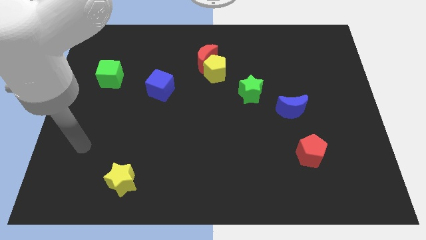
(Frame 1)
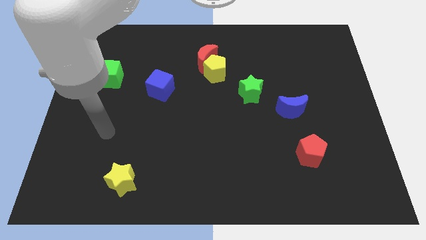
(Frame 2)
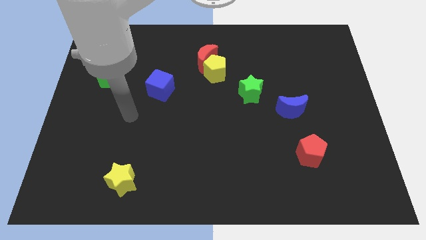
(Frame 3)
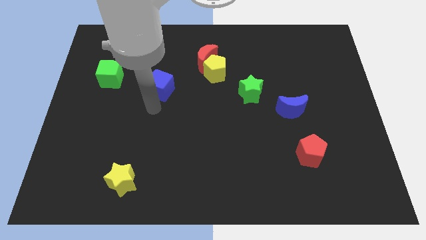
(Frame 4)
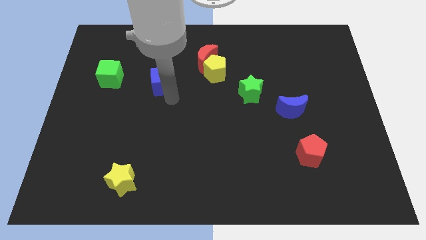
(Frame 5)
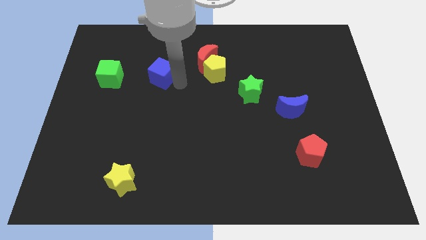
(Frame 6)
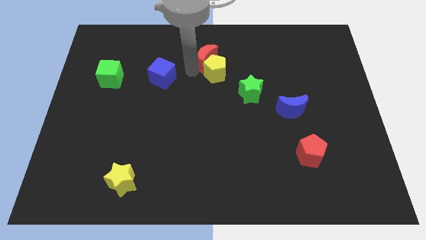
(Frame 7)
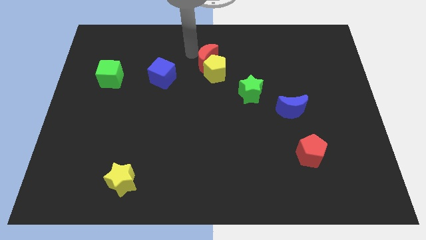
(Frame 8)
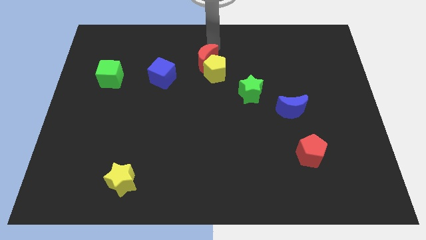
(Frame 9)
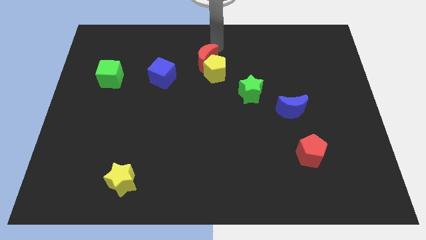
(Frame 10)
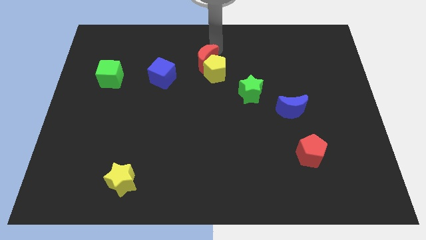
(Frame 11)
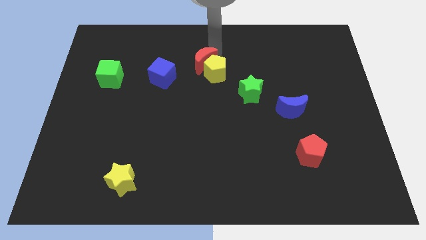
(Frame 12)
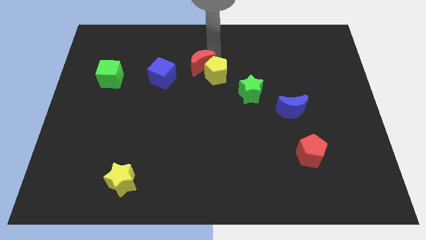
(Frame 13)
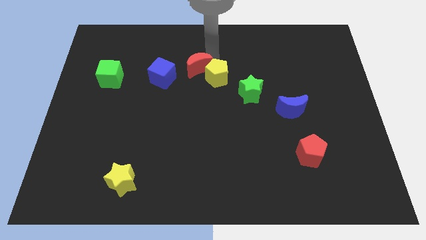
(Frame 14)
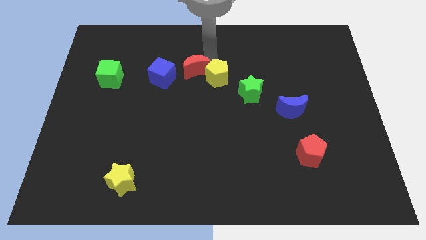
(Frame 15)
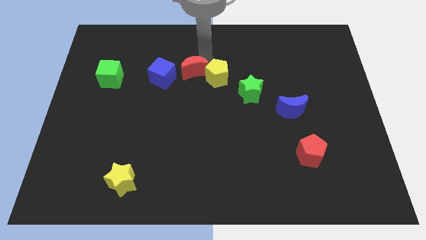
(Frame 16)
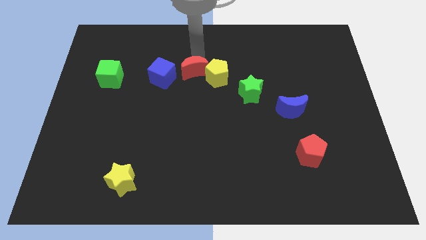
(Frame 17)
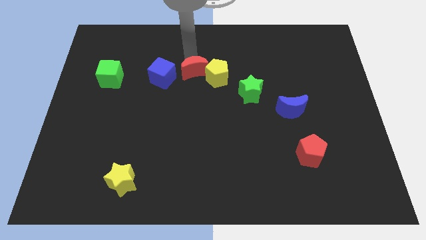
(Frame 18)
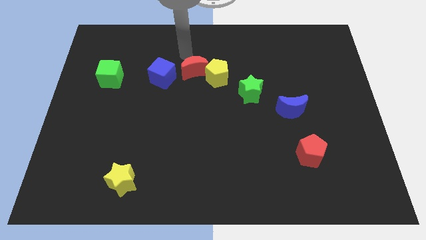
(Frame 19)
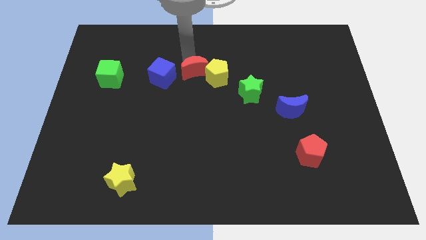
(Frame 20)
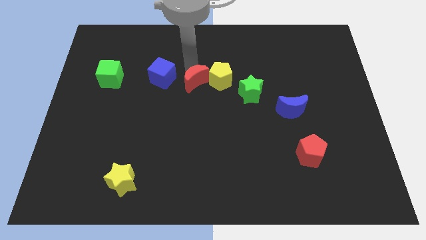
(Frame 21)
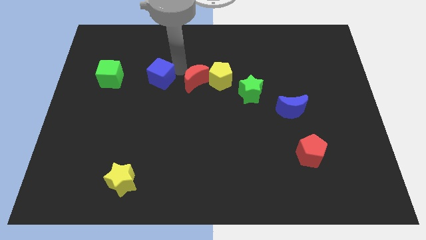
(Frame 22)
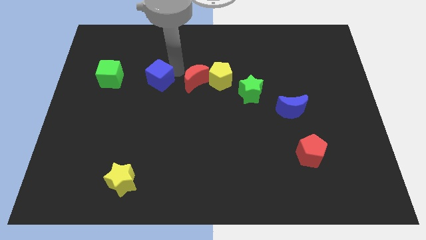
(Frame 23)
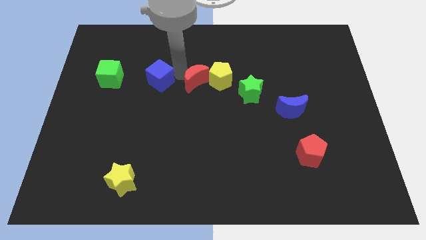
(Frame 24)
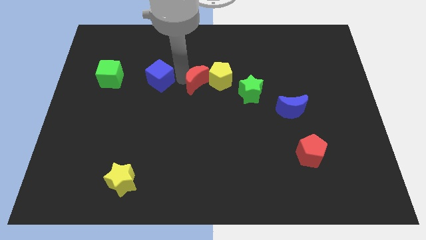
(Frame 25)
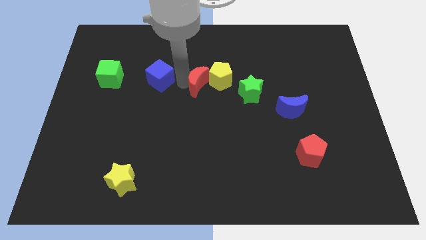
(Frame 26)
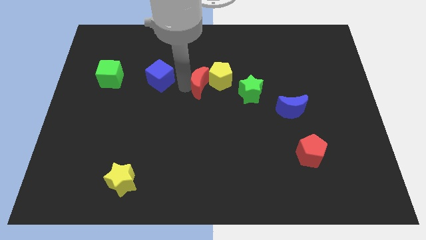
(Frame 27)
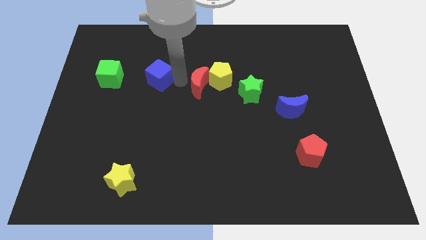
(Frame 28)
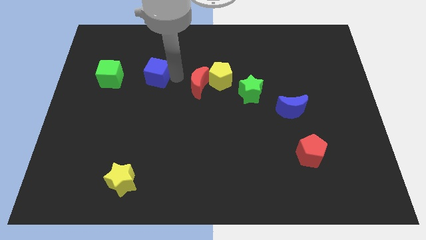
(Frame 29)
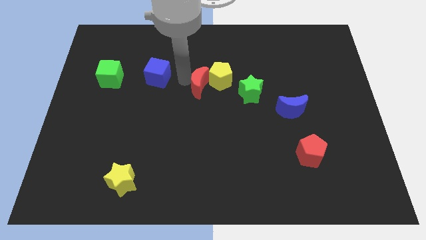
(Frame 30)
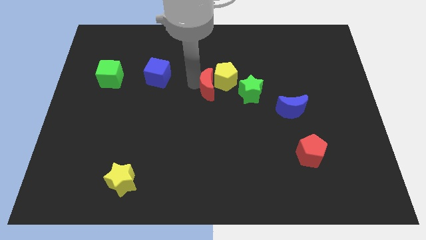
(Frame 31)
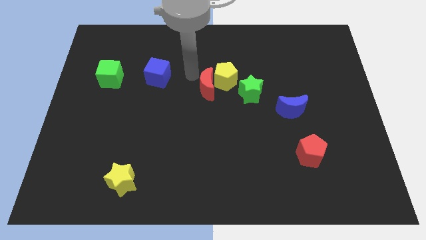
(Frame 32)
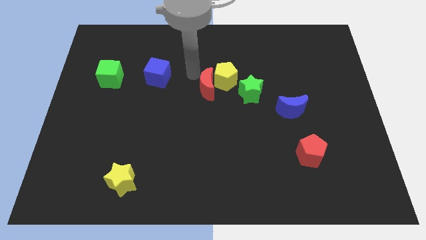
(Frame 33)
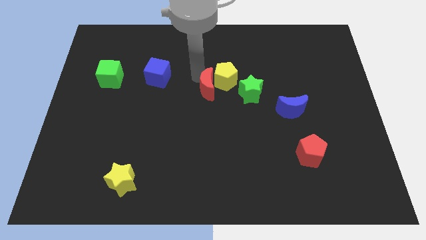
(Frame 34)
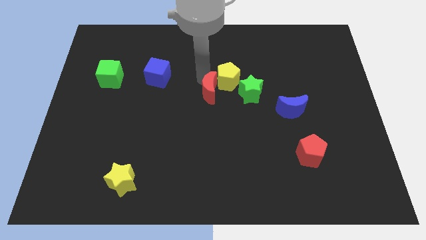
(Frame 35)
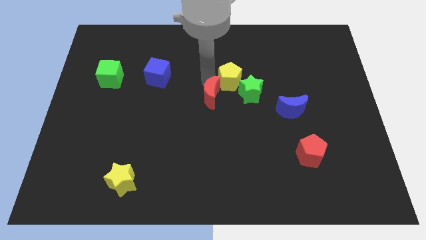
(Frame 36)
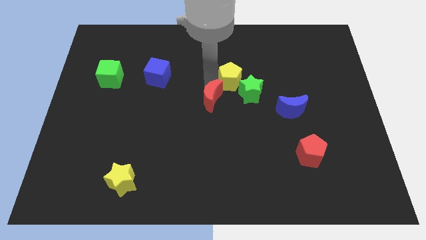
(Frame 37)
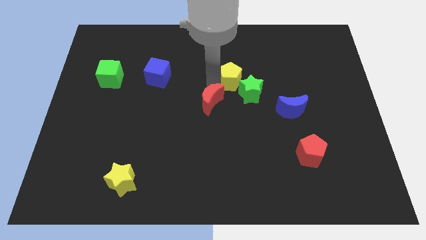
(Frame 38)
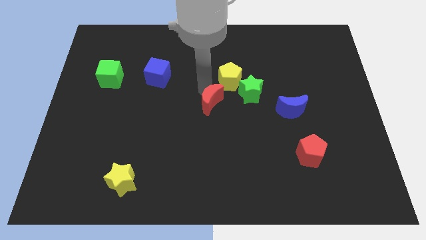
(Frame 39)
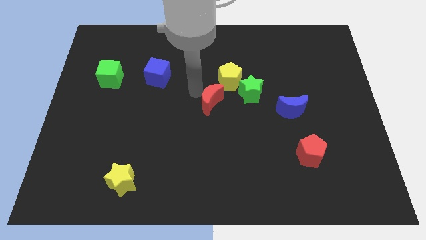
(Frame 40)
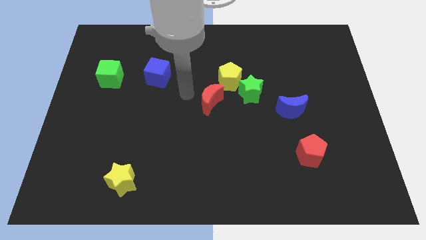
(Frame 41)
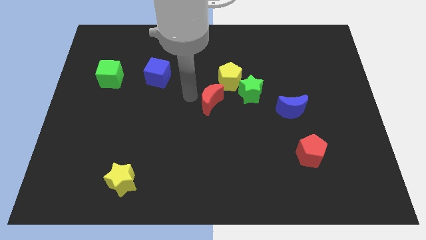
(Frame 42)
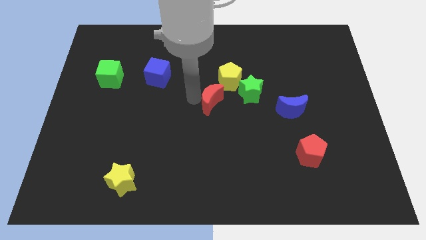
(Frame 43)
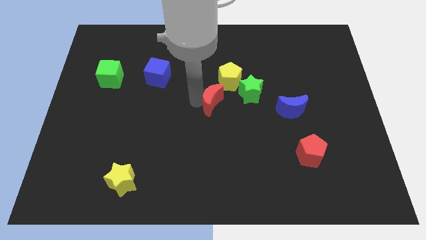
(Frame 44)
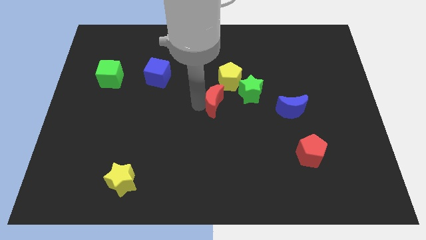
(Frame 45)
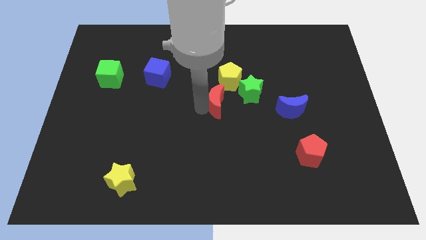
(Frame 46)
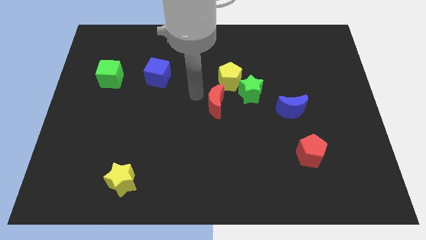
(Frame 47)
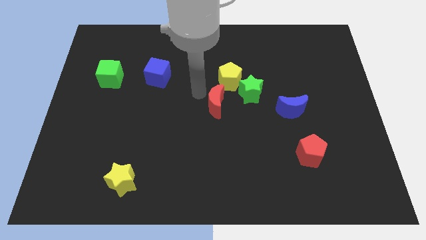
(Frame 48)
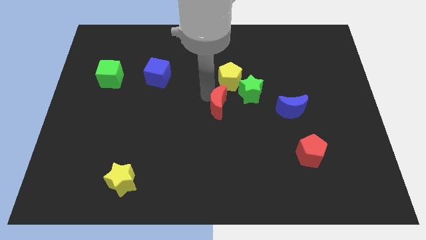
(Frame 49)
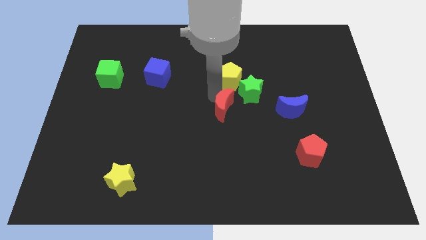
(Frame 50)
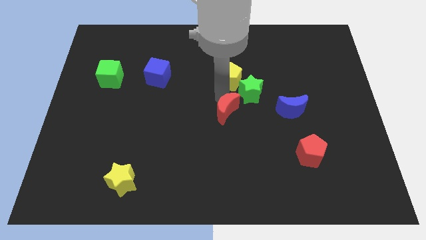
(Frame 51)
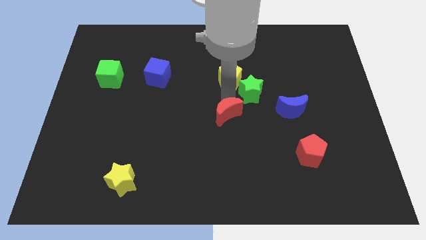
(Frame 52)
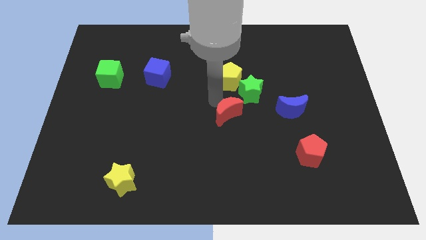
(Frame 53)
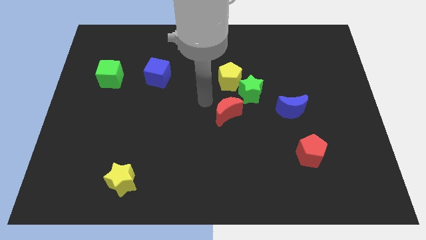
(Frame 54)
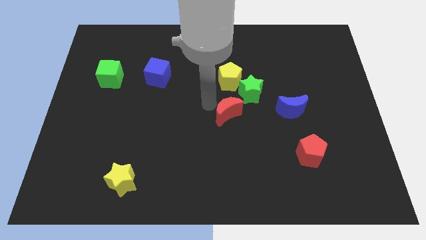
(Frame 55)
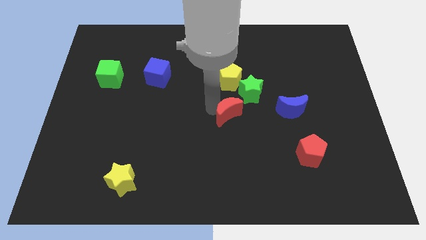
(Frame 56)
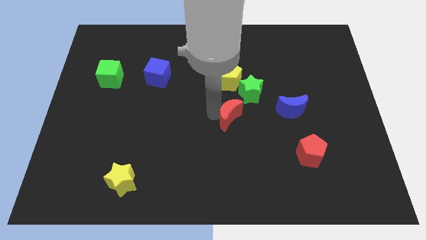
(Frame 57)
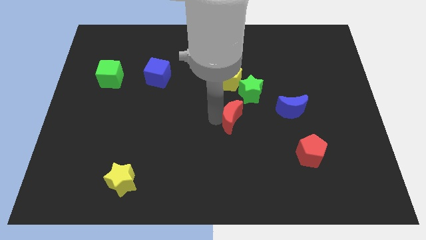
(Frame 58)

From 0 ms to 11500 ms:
slide the red moon below the green star
